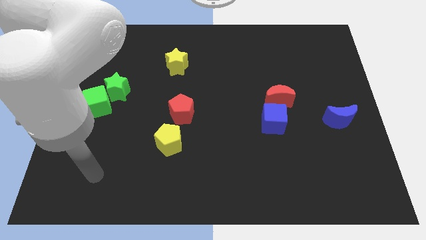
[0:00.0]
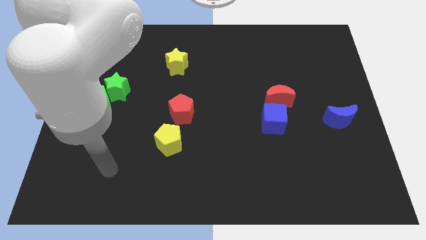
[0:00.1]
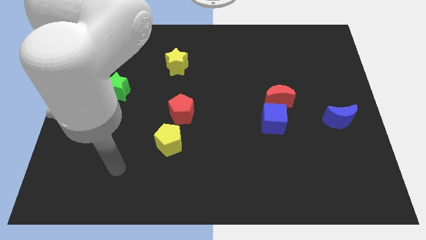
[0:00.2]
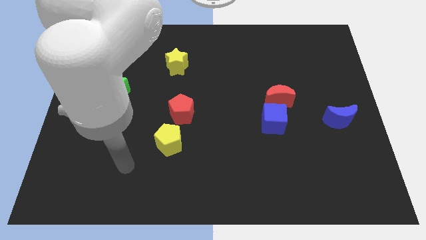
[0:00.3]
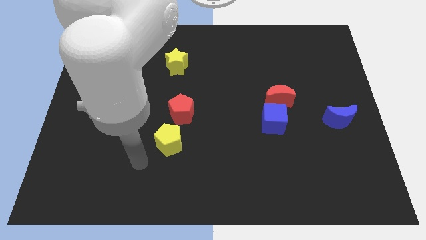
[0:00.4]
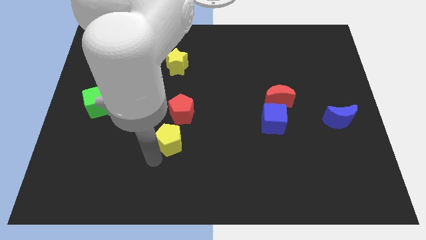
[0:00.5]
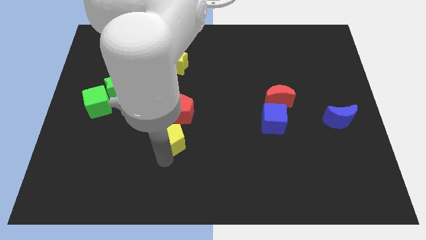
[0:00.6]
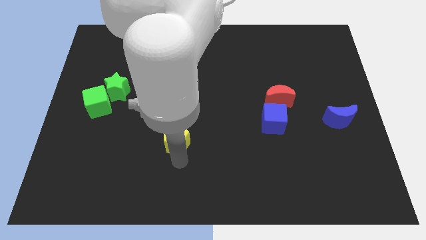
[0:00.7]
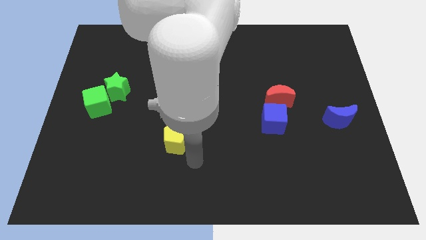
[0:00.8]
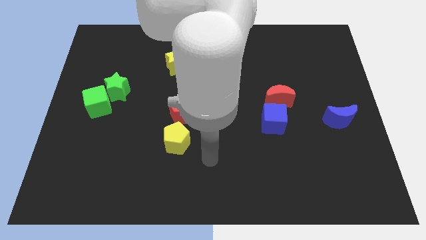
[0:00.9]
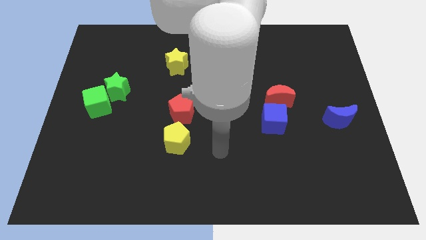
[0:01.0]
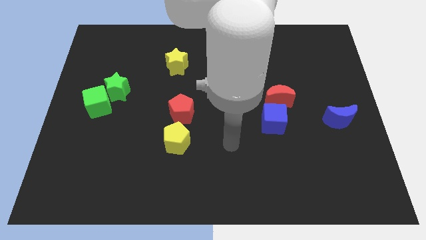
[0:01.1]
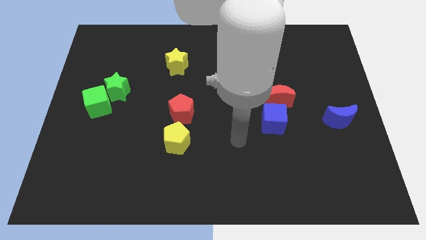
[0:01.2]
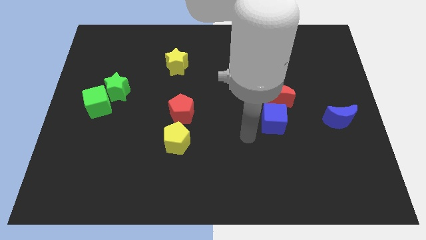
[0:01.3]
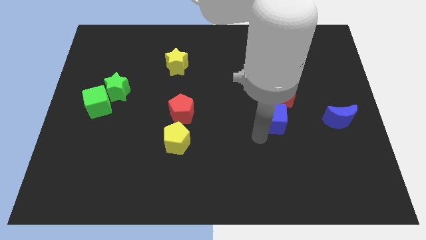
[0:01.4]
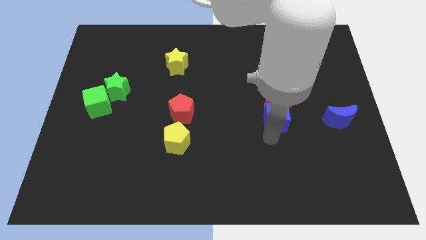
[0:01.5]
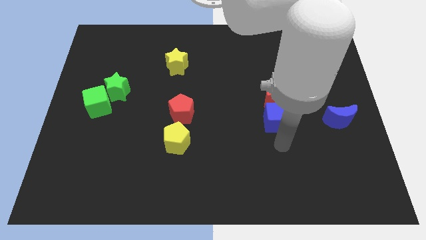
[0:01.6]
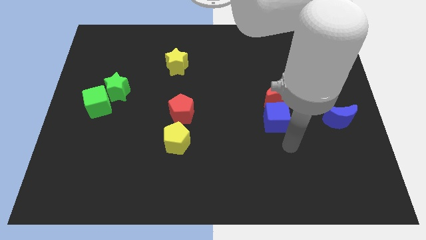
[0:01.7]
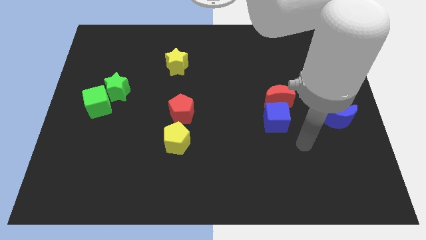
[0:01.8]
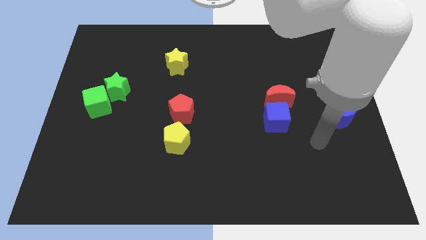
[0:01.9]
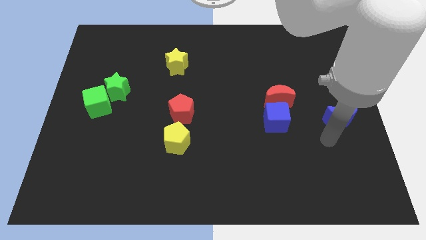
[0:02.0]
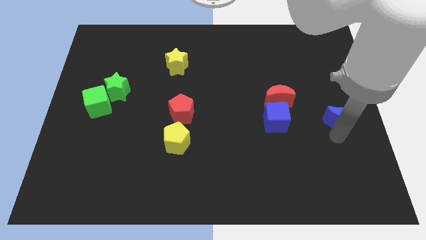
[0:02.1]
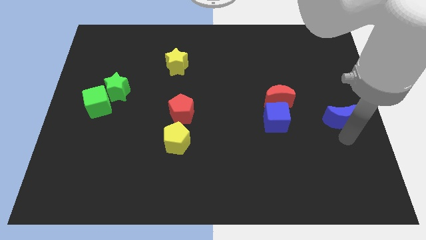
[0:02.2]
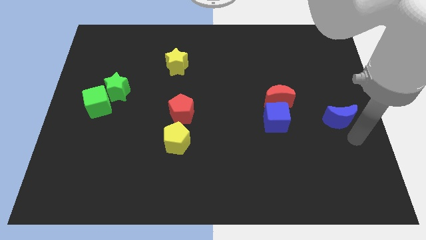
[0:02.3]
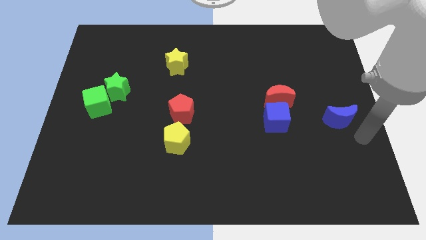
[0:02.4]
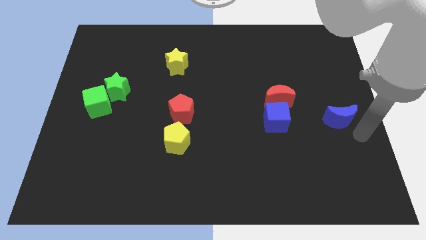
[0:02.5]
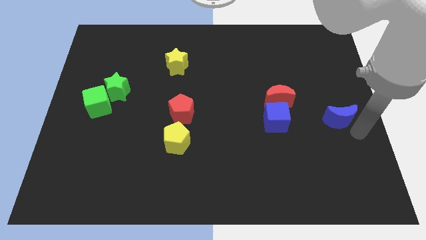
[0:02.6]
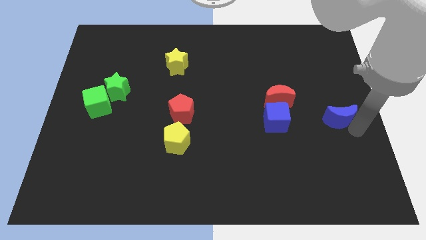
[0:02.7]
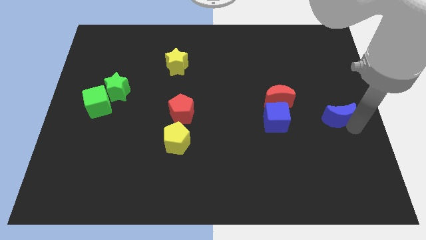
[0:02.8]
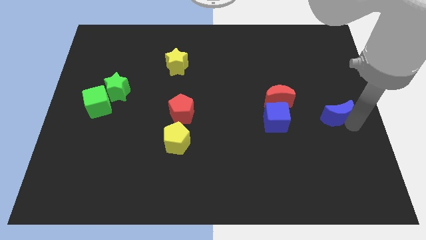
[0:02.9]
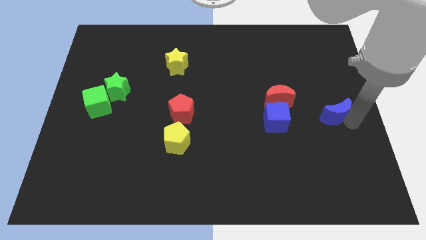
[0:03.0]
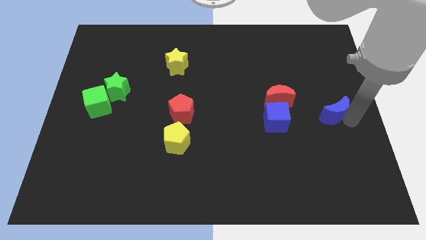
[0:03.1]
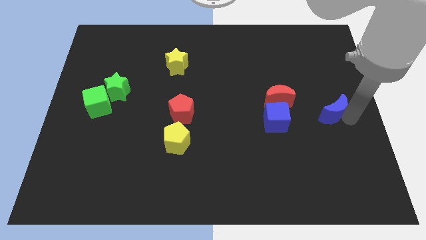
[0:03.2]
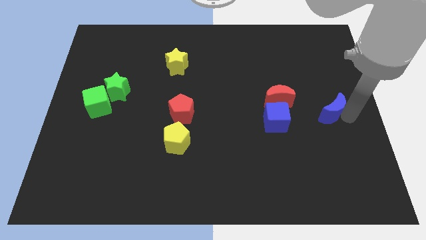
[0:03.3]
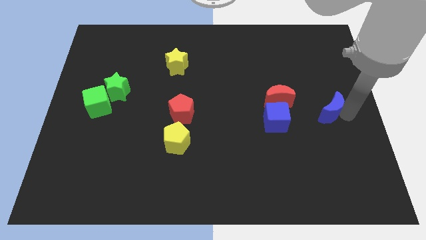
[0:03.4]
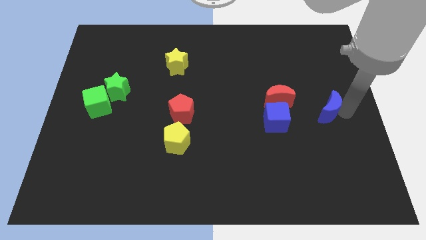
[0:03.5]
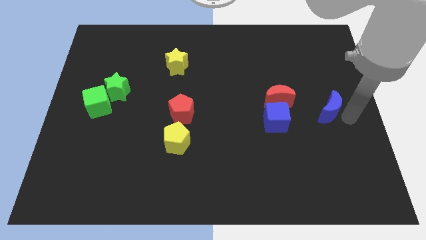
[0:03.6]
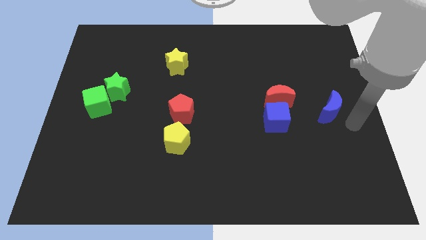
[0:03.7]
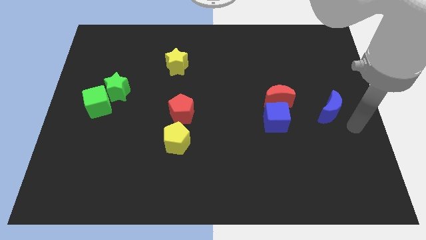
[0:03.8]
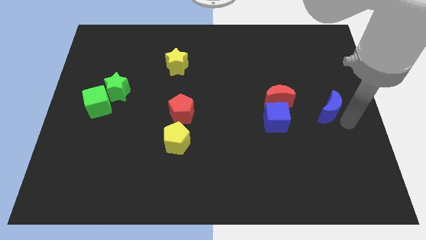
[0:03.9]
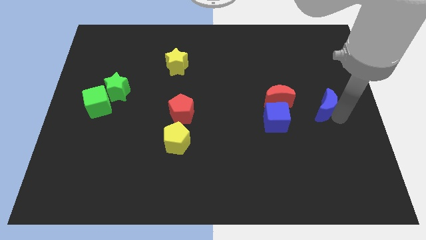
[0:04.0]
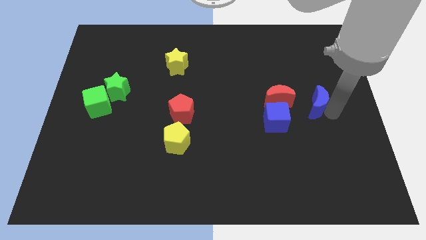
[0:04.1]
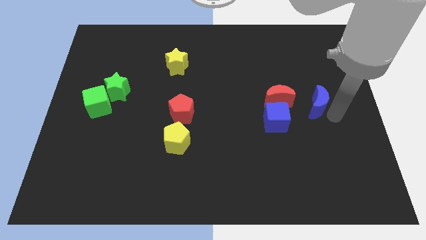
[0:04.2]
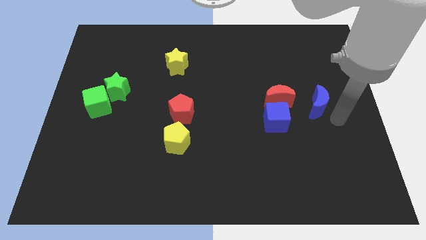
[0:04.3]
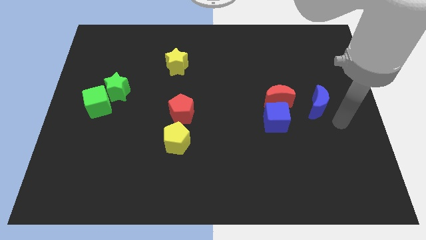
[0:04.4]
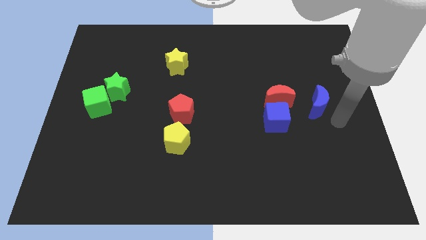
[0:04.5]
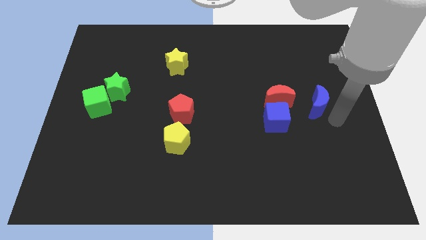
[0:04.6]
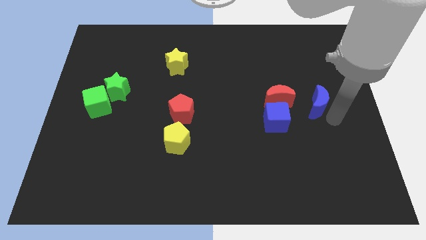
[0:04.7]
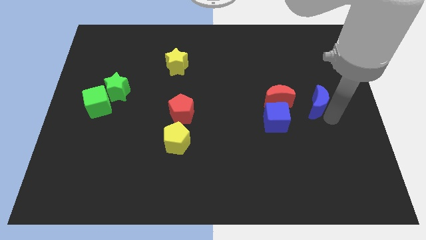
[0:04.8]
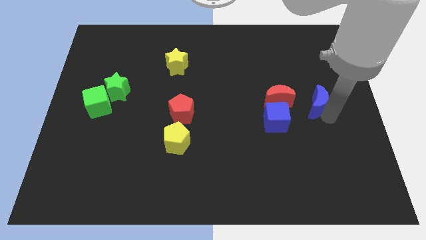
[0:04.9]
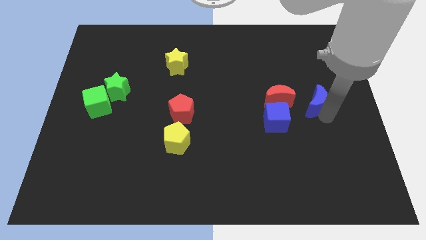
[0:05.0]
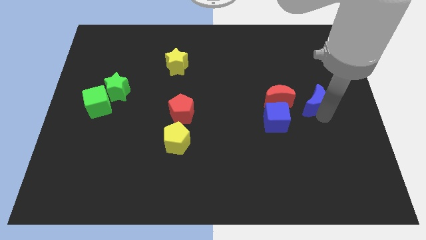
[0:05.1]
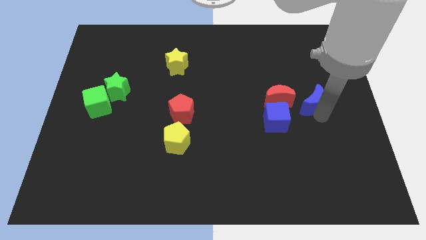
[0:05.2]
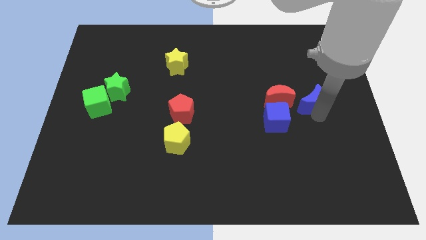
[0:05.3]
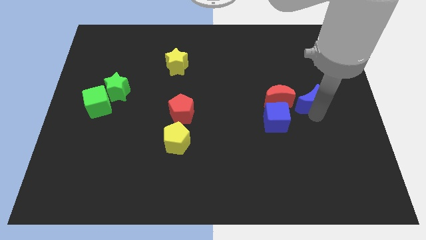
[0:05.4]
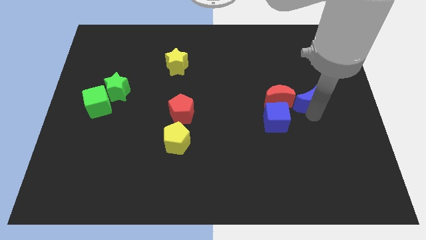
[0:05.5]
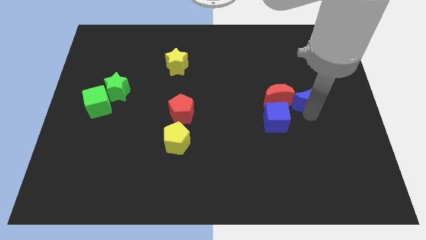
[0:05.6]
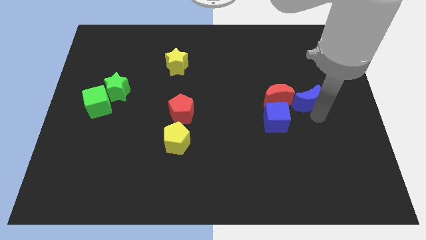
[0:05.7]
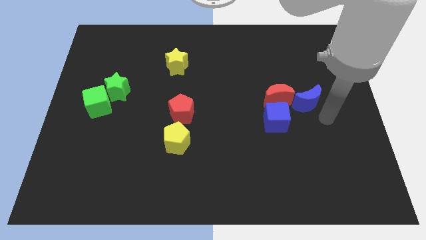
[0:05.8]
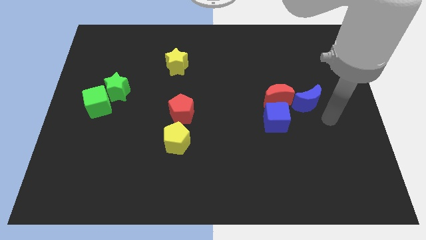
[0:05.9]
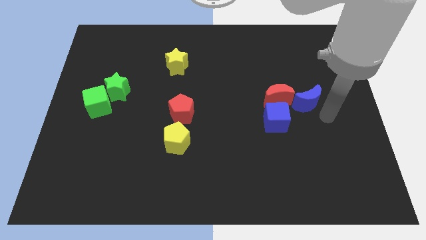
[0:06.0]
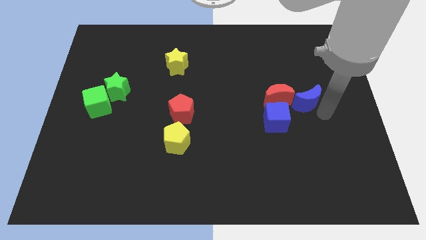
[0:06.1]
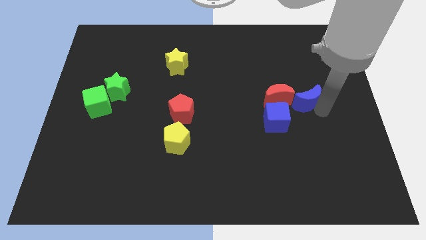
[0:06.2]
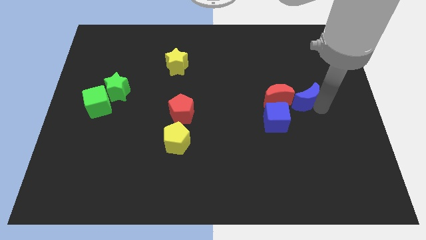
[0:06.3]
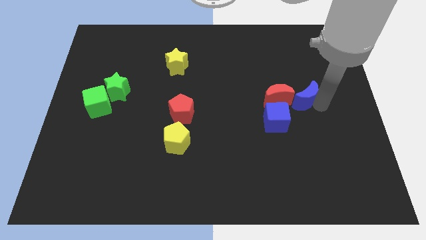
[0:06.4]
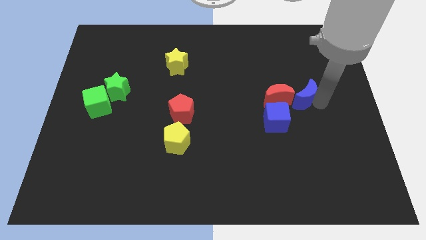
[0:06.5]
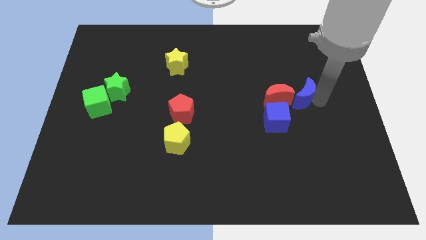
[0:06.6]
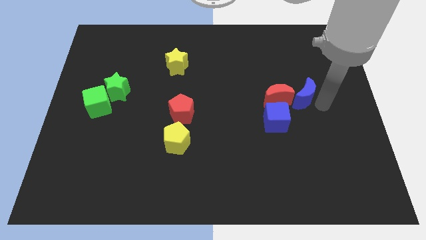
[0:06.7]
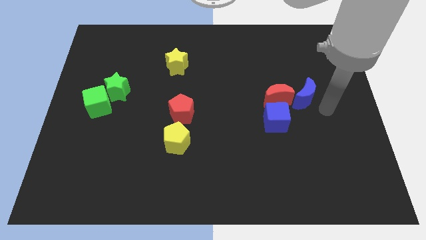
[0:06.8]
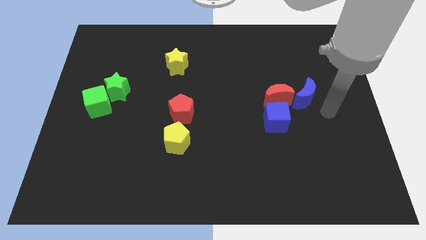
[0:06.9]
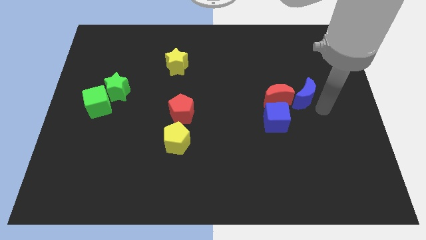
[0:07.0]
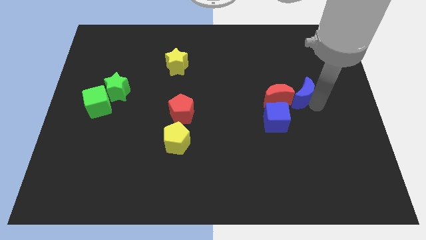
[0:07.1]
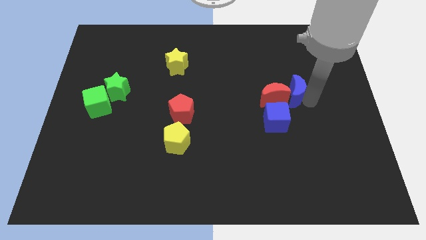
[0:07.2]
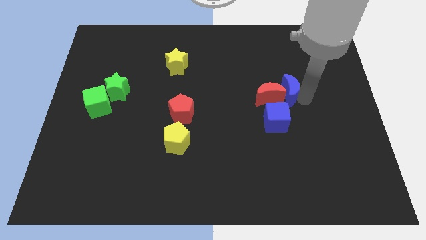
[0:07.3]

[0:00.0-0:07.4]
slightly slide the blue moon left

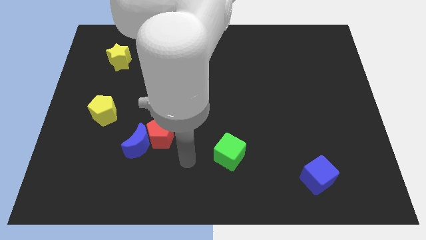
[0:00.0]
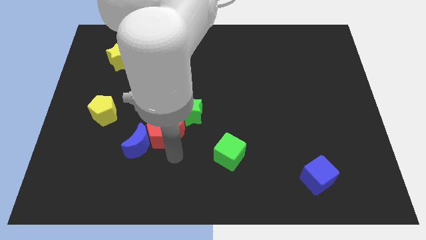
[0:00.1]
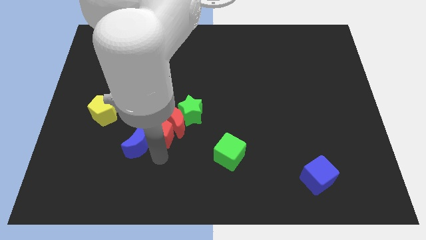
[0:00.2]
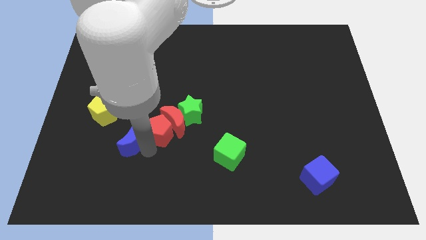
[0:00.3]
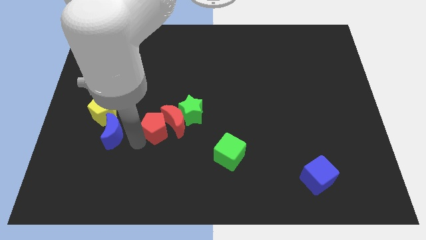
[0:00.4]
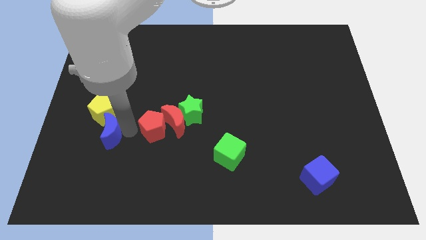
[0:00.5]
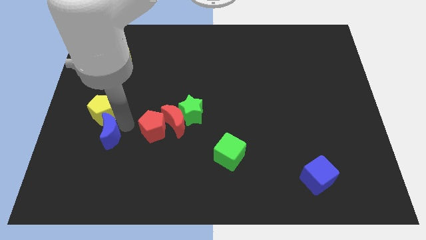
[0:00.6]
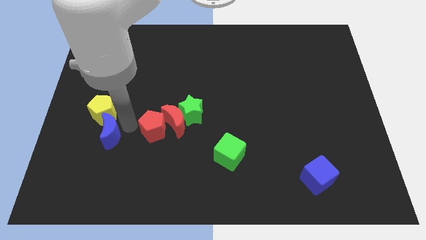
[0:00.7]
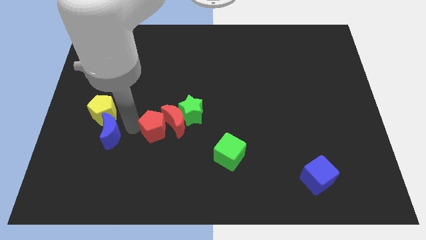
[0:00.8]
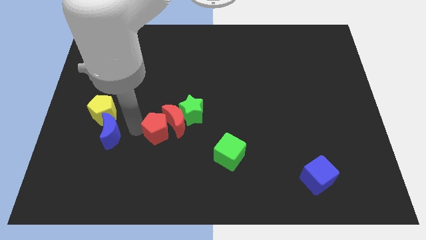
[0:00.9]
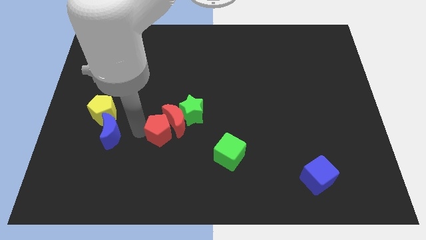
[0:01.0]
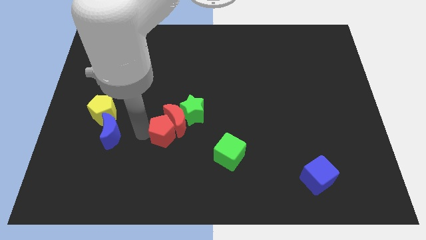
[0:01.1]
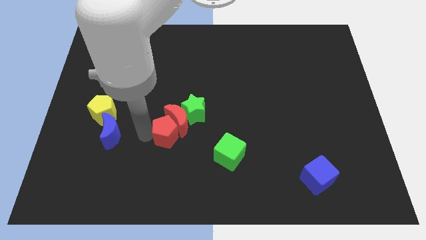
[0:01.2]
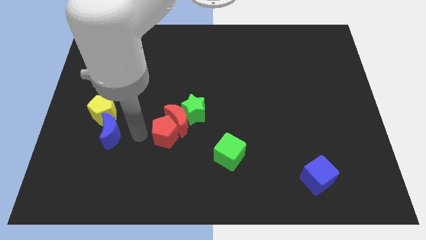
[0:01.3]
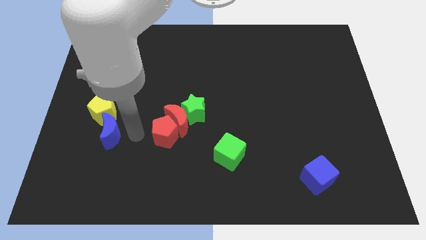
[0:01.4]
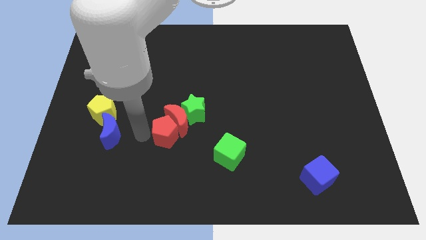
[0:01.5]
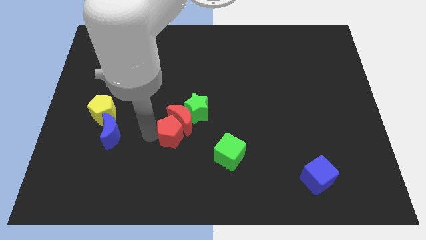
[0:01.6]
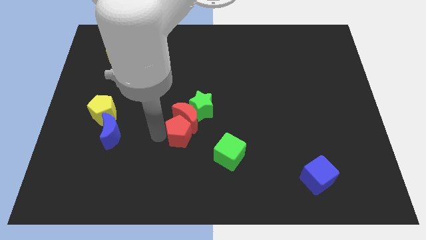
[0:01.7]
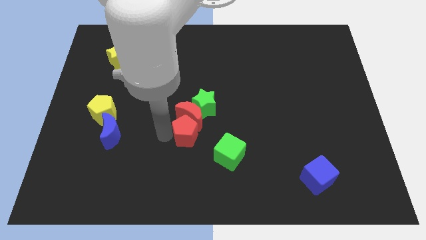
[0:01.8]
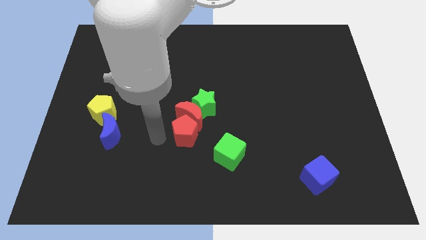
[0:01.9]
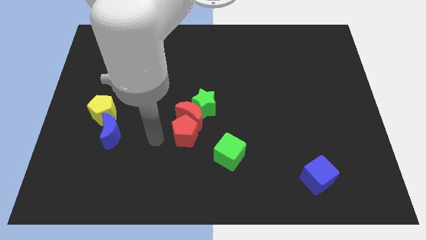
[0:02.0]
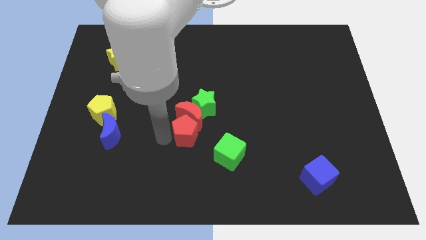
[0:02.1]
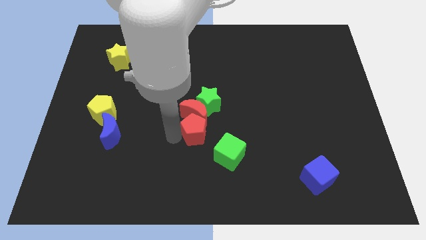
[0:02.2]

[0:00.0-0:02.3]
move the red pentagon to the right a little bit
